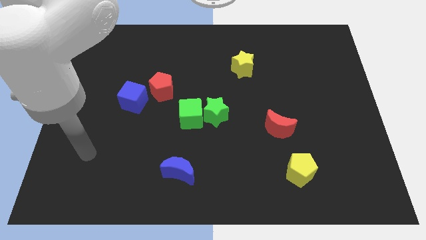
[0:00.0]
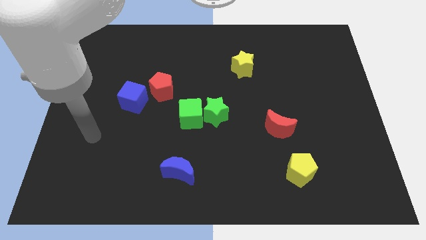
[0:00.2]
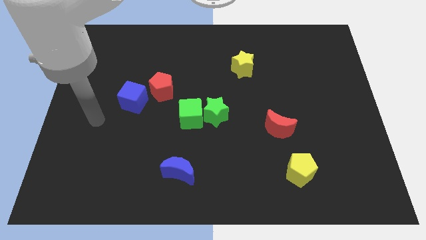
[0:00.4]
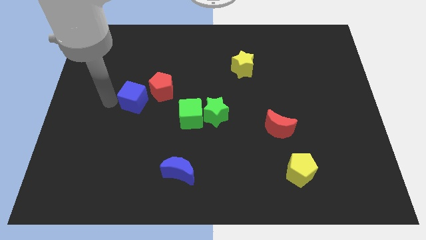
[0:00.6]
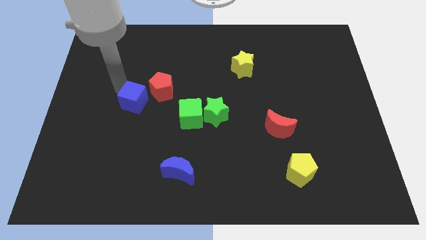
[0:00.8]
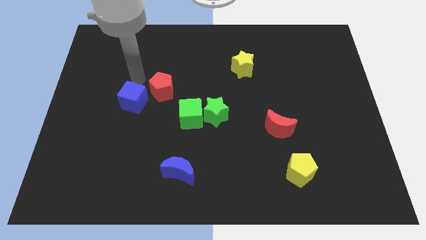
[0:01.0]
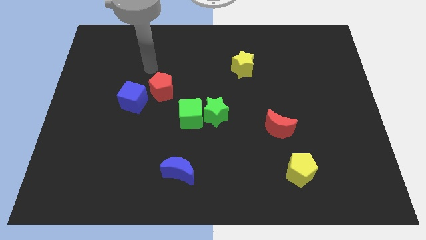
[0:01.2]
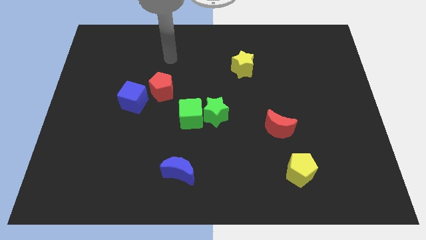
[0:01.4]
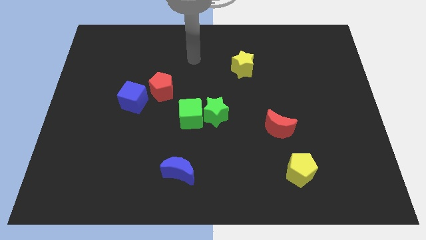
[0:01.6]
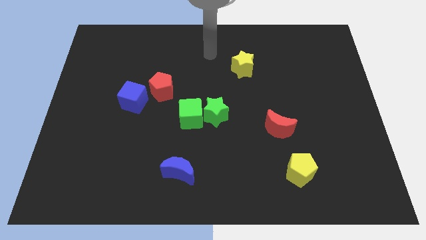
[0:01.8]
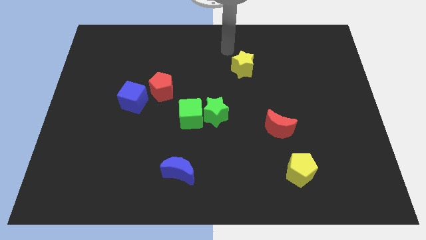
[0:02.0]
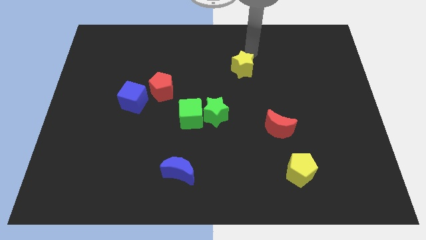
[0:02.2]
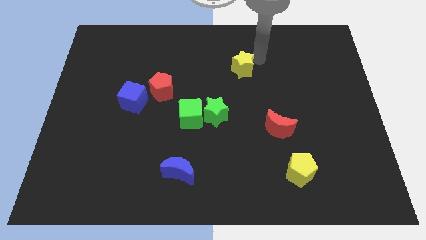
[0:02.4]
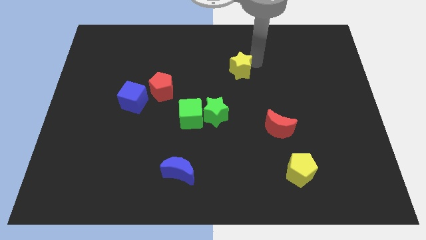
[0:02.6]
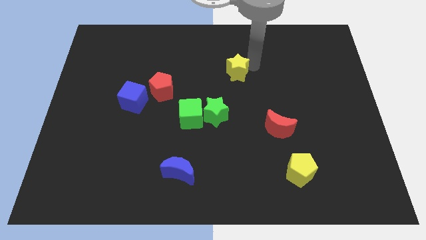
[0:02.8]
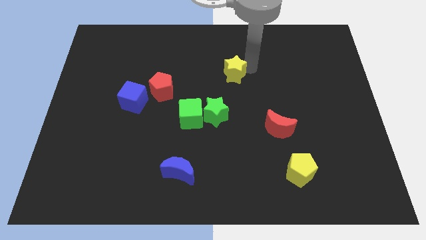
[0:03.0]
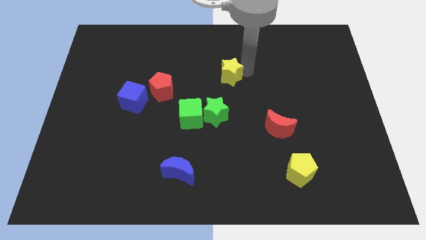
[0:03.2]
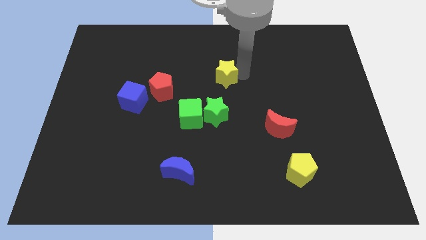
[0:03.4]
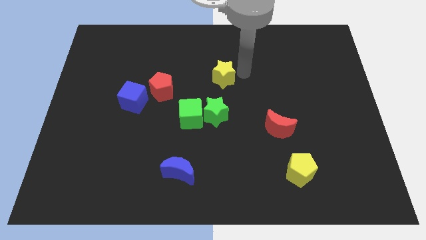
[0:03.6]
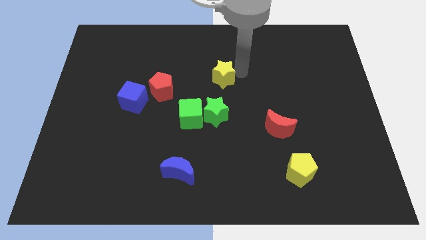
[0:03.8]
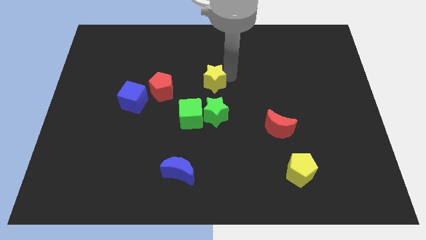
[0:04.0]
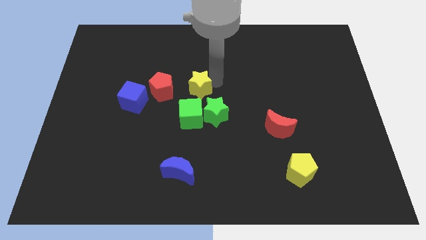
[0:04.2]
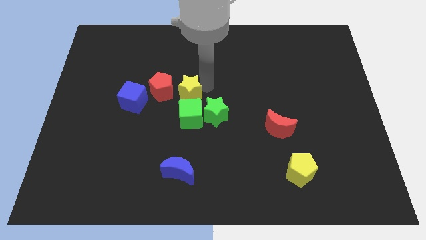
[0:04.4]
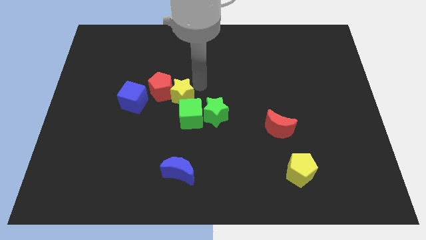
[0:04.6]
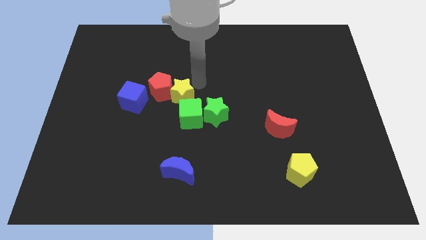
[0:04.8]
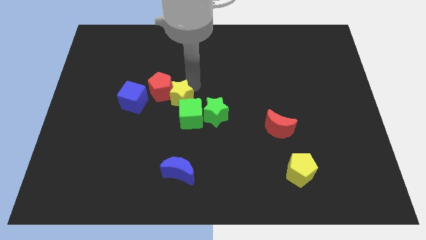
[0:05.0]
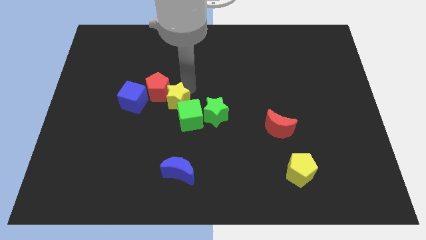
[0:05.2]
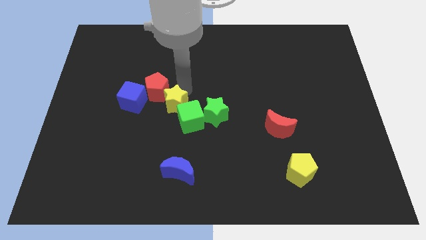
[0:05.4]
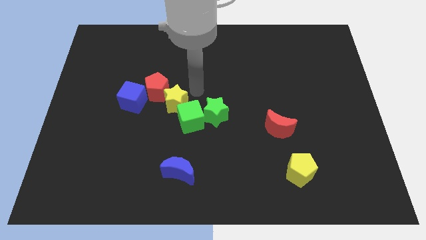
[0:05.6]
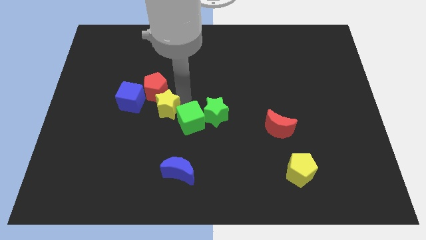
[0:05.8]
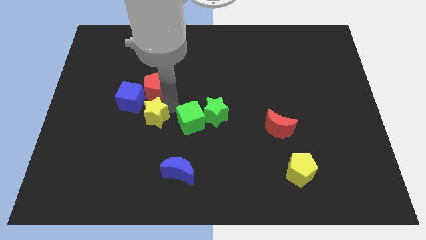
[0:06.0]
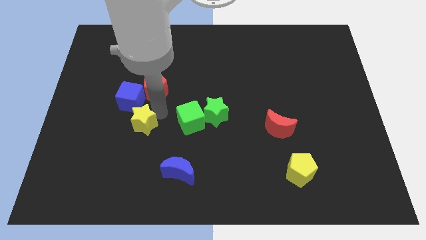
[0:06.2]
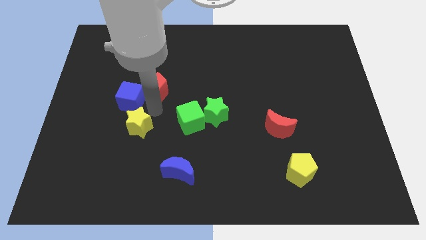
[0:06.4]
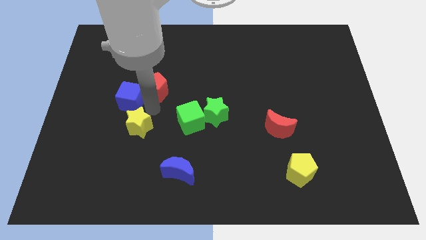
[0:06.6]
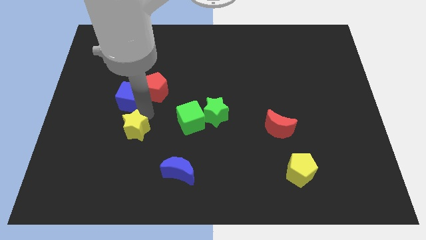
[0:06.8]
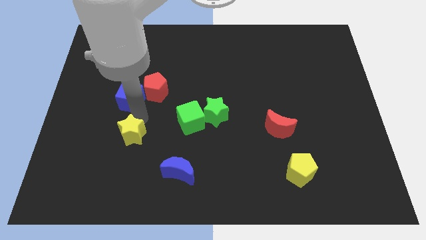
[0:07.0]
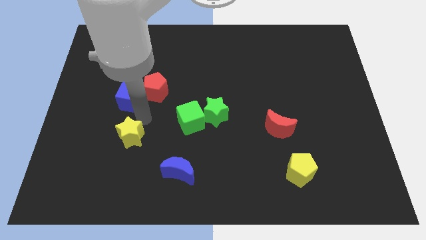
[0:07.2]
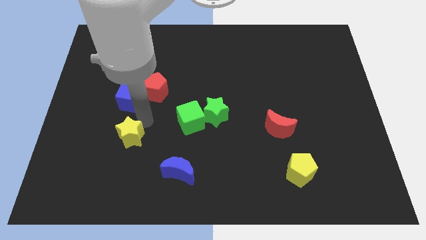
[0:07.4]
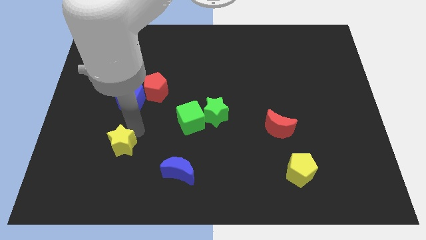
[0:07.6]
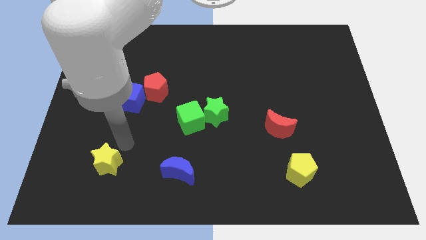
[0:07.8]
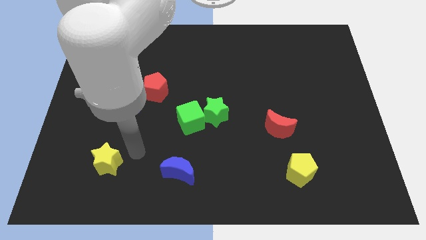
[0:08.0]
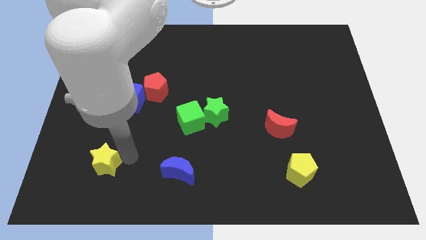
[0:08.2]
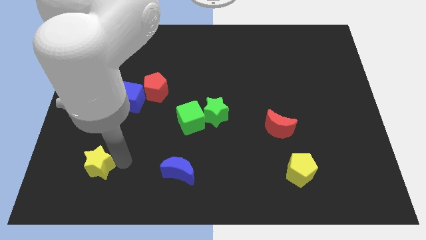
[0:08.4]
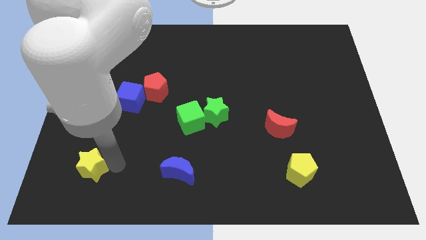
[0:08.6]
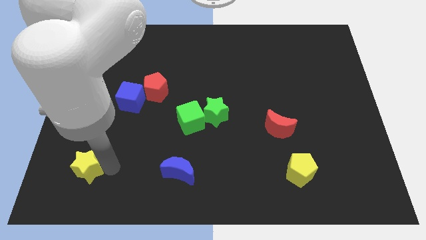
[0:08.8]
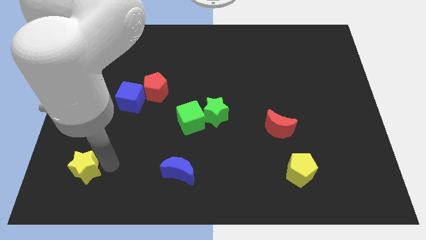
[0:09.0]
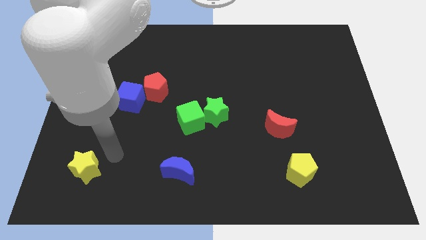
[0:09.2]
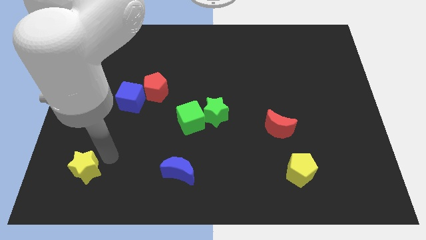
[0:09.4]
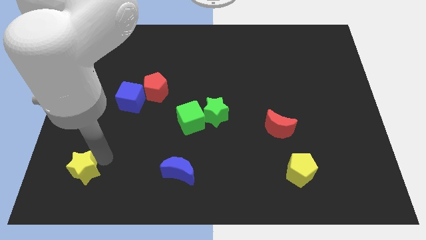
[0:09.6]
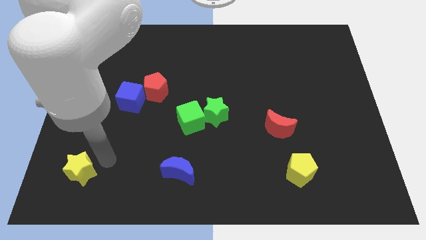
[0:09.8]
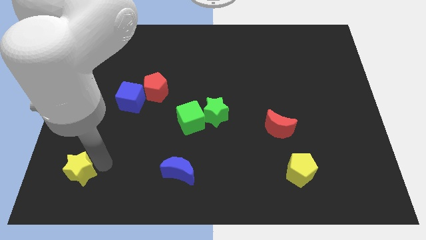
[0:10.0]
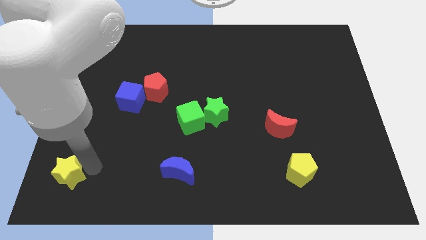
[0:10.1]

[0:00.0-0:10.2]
move the yellow star to the bottom left of the board

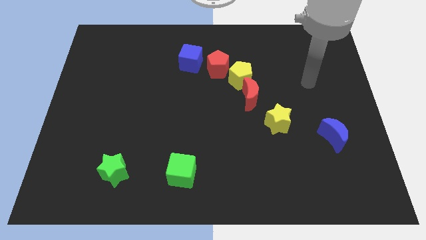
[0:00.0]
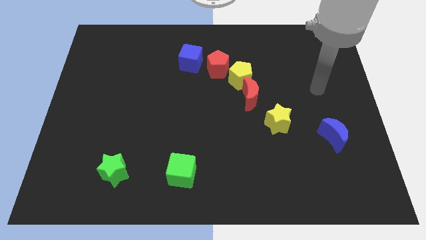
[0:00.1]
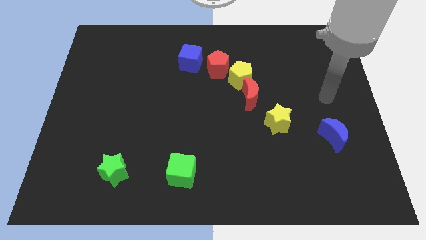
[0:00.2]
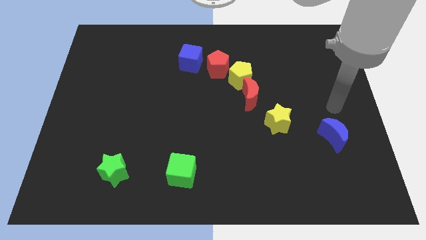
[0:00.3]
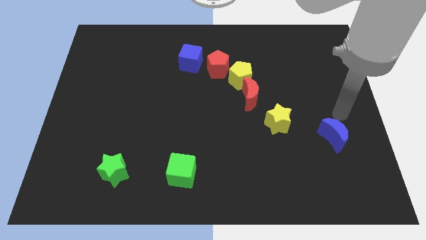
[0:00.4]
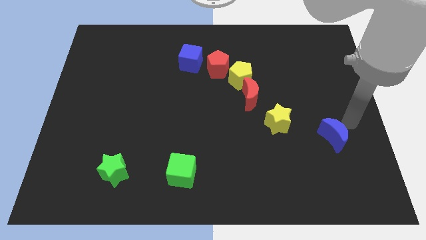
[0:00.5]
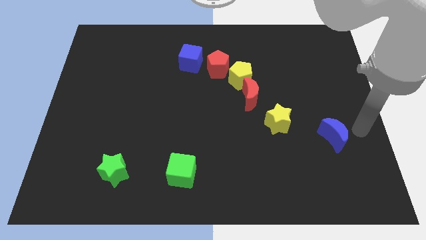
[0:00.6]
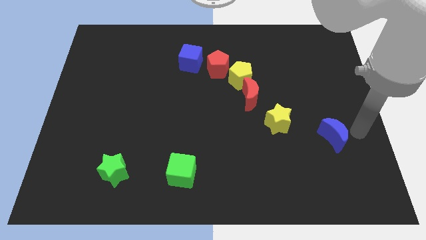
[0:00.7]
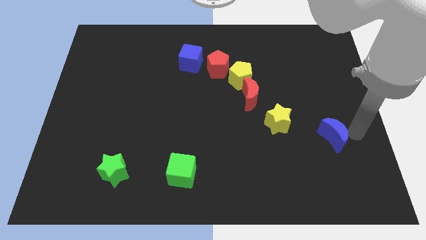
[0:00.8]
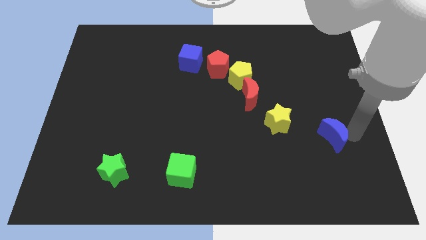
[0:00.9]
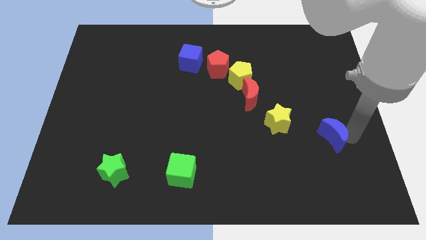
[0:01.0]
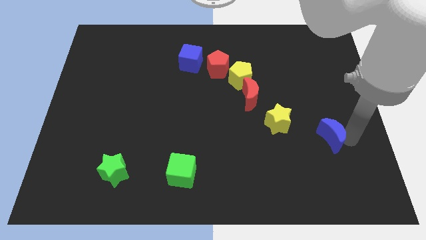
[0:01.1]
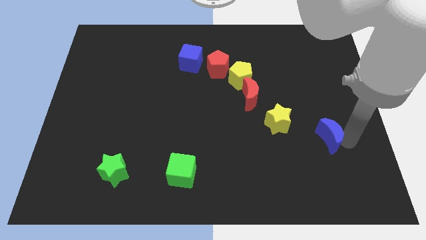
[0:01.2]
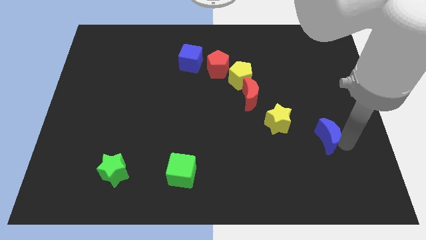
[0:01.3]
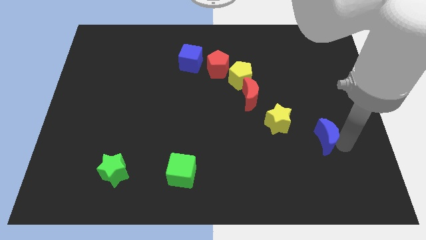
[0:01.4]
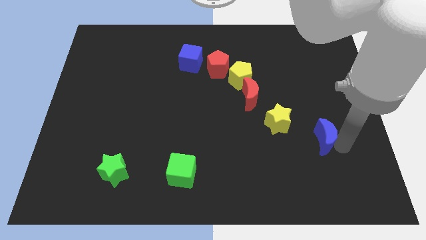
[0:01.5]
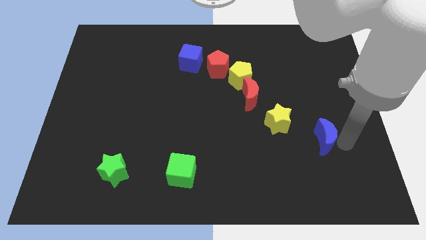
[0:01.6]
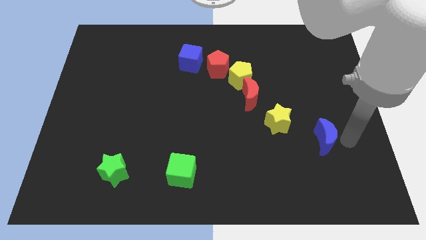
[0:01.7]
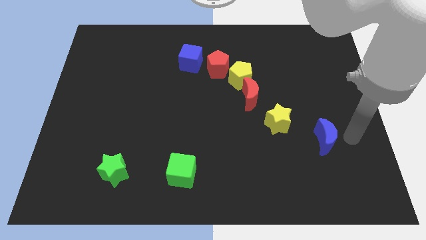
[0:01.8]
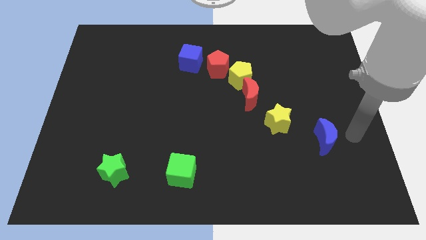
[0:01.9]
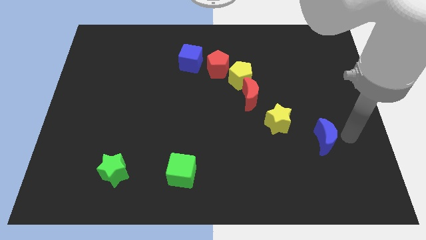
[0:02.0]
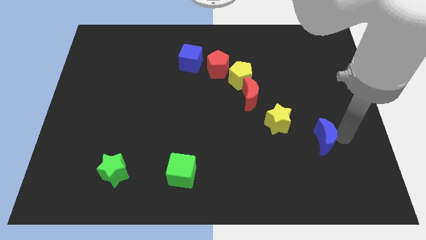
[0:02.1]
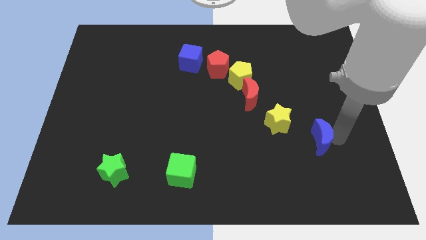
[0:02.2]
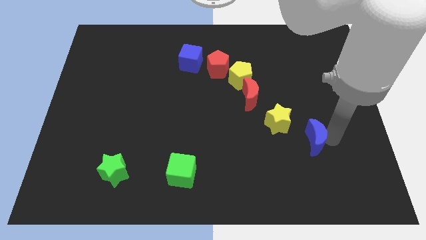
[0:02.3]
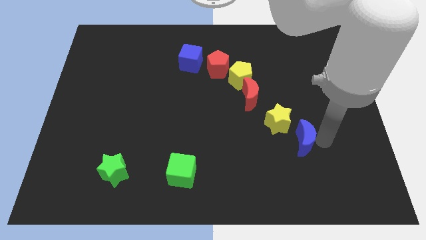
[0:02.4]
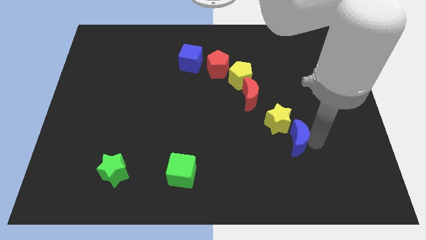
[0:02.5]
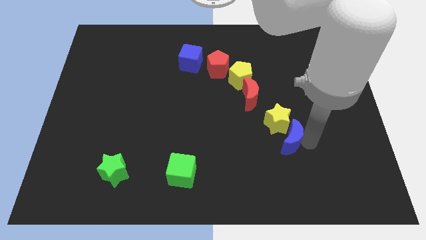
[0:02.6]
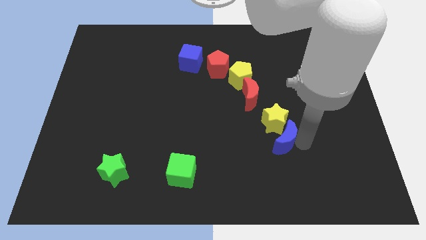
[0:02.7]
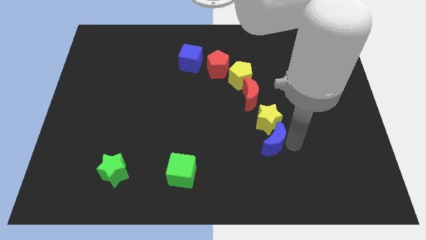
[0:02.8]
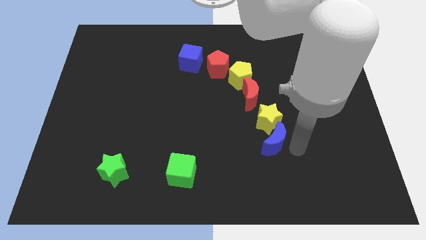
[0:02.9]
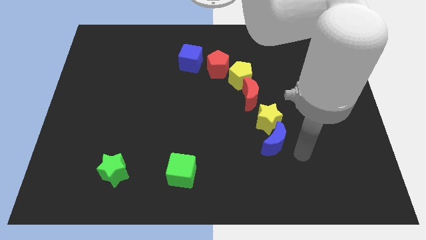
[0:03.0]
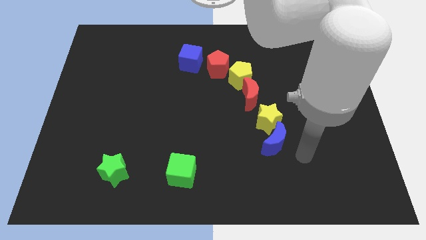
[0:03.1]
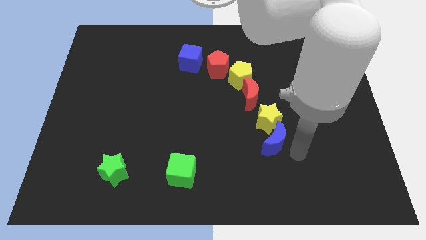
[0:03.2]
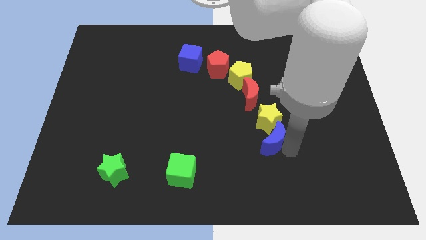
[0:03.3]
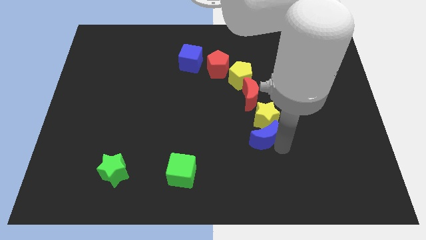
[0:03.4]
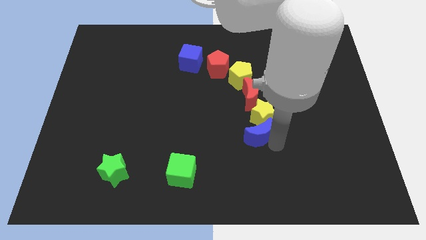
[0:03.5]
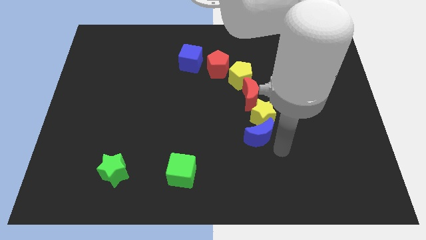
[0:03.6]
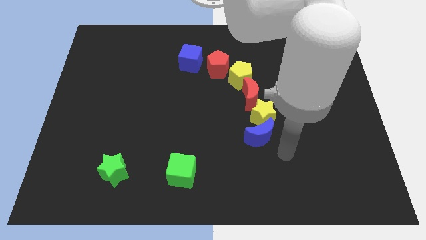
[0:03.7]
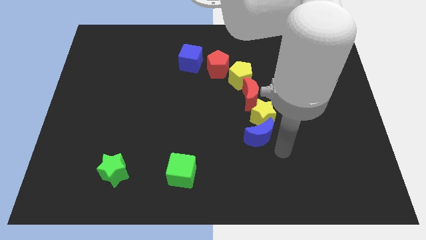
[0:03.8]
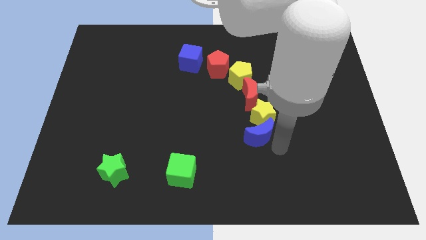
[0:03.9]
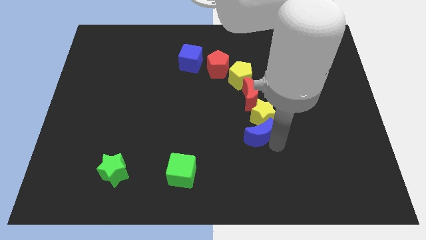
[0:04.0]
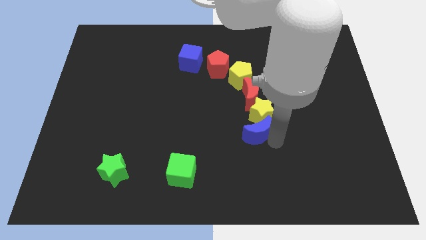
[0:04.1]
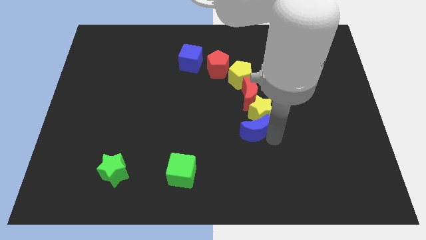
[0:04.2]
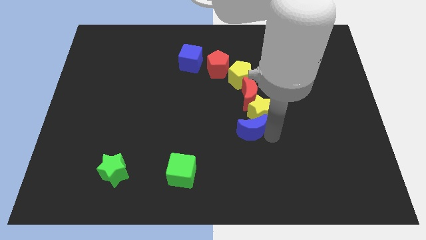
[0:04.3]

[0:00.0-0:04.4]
push the blue moon to the middle
